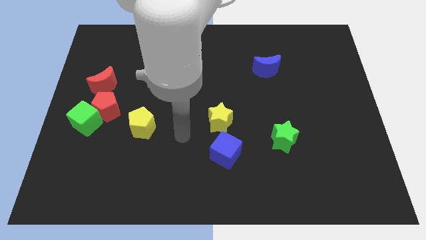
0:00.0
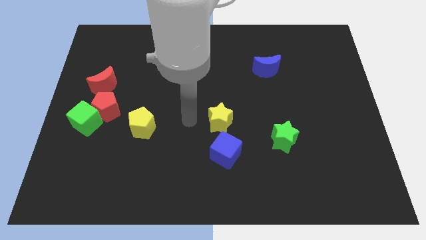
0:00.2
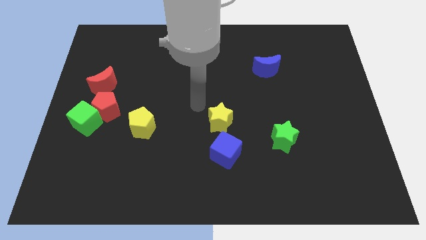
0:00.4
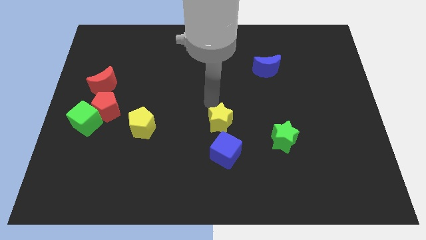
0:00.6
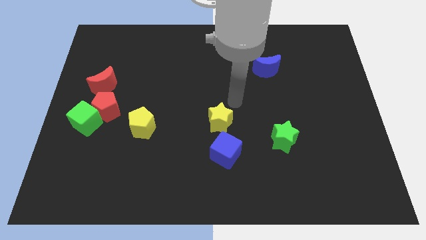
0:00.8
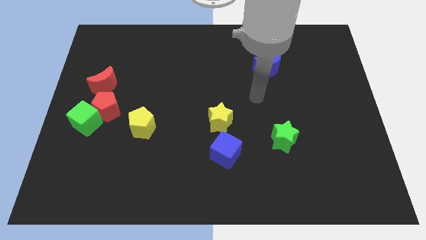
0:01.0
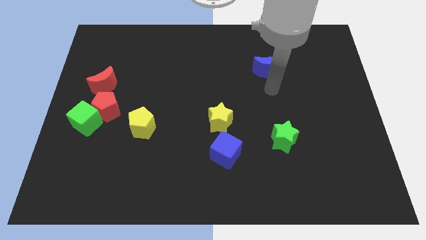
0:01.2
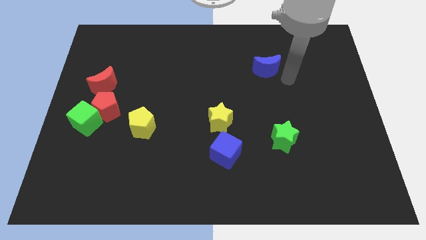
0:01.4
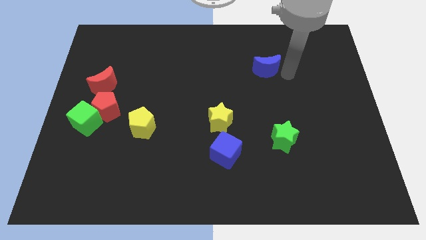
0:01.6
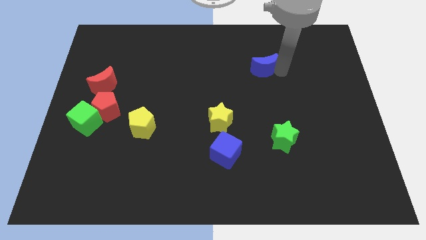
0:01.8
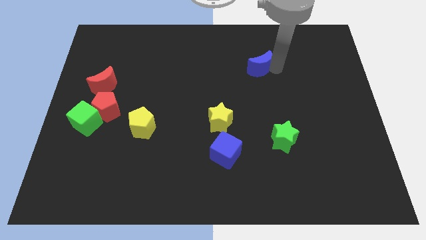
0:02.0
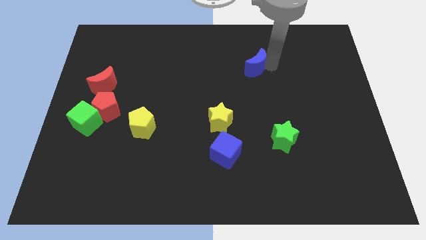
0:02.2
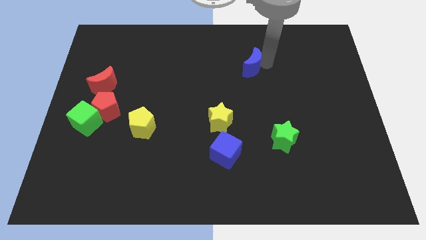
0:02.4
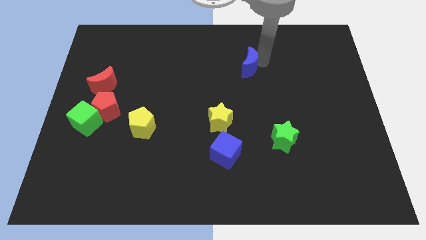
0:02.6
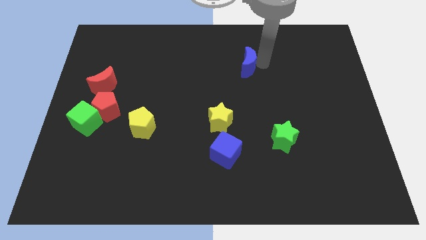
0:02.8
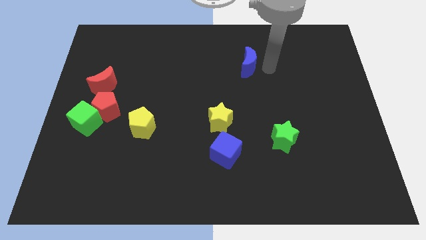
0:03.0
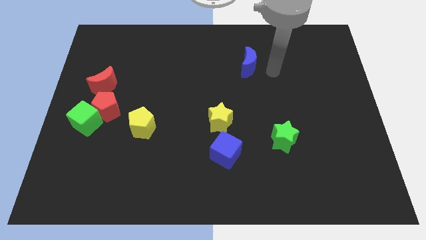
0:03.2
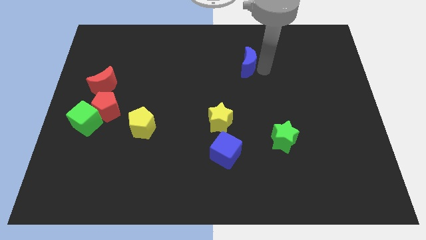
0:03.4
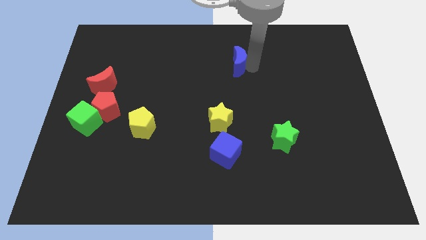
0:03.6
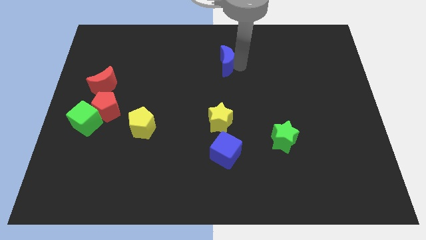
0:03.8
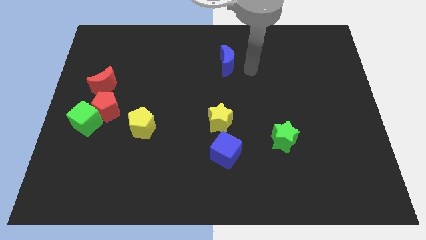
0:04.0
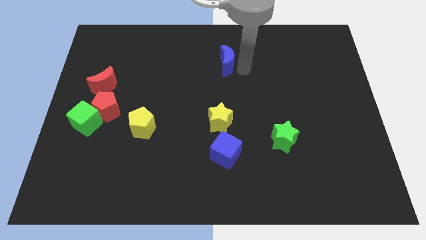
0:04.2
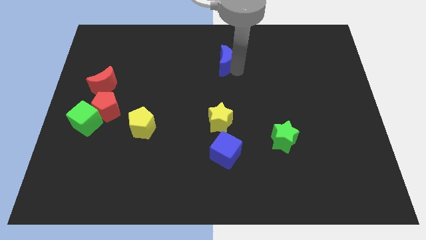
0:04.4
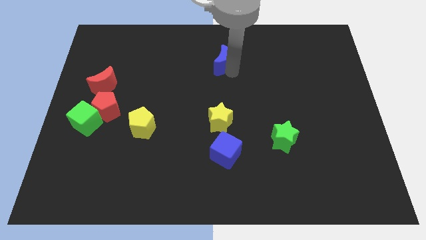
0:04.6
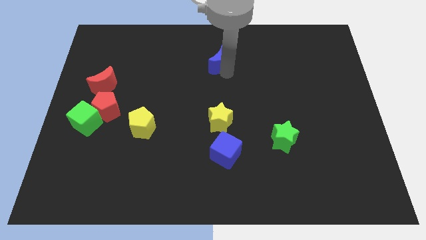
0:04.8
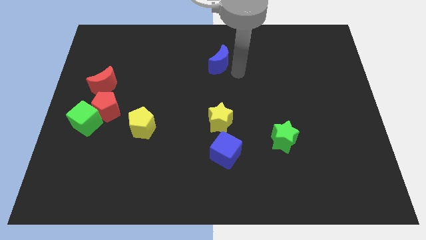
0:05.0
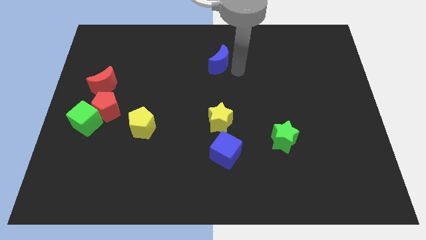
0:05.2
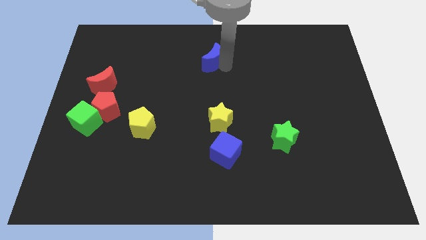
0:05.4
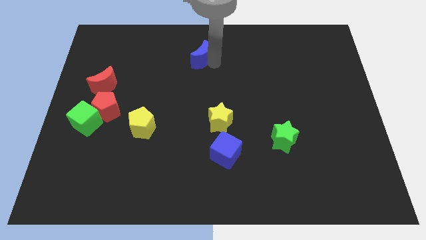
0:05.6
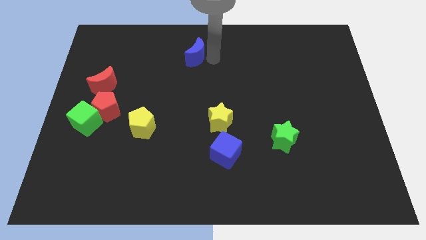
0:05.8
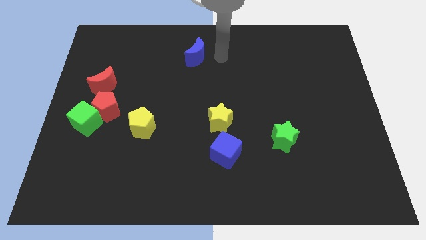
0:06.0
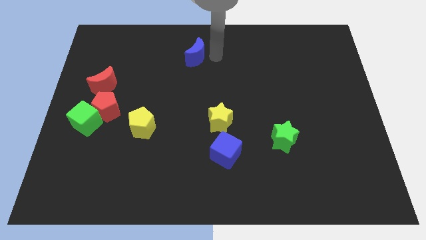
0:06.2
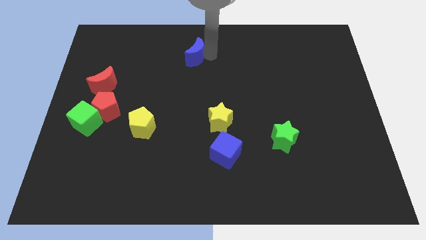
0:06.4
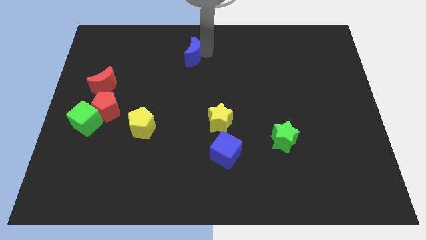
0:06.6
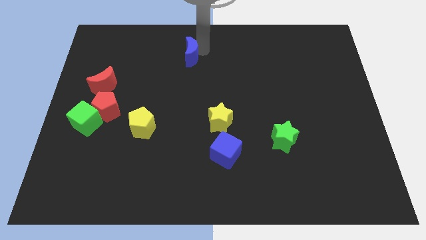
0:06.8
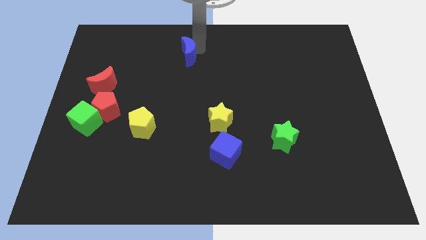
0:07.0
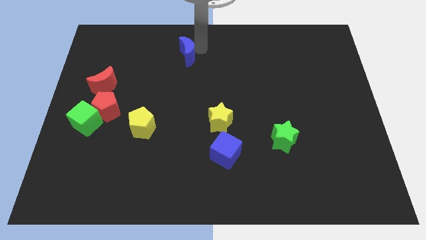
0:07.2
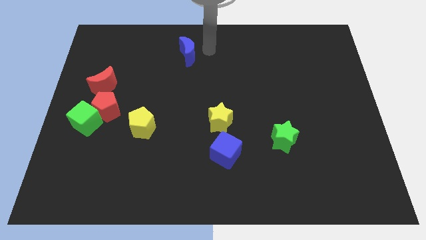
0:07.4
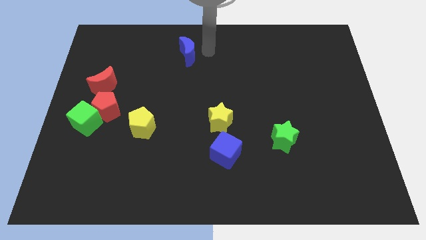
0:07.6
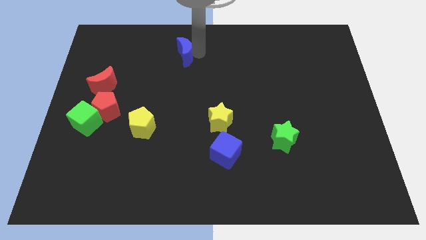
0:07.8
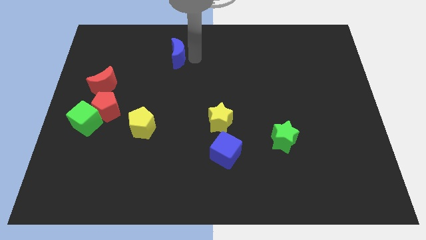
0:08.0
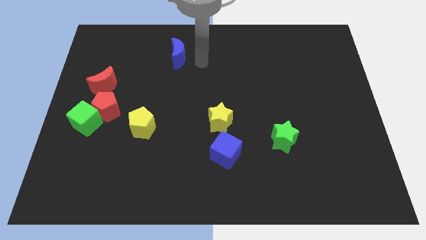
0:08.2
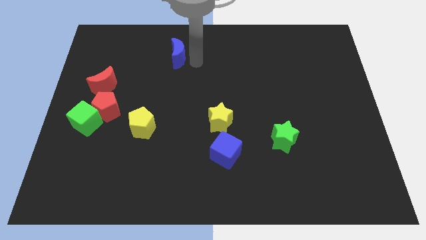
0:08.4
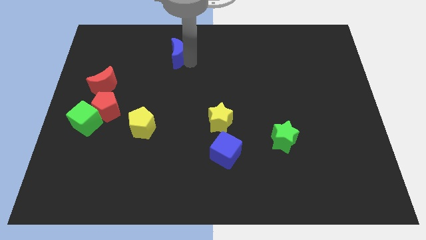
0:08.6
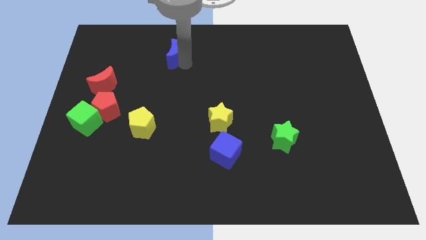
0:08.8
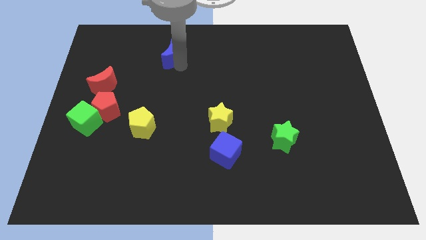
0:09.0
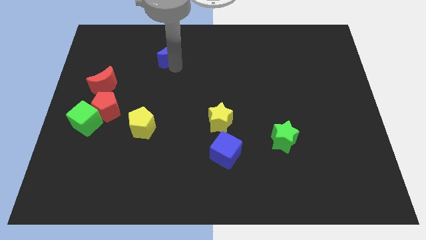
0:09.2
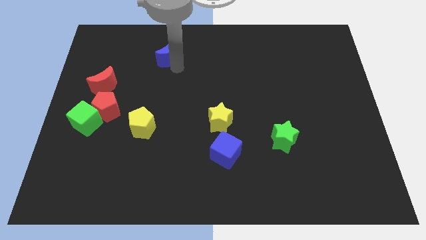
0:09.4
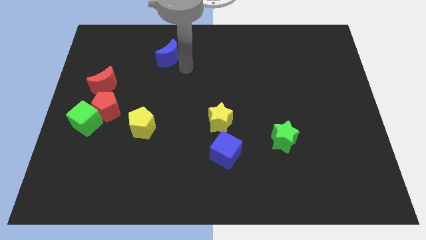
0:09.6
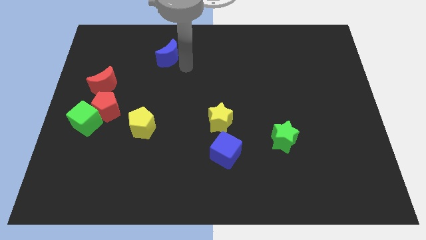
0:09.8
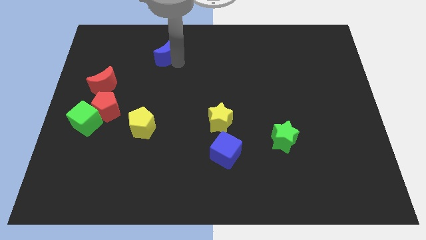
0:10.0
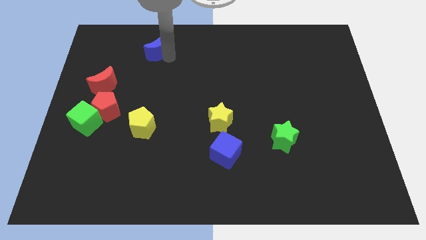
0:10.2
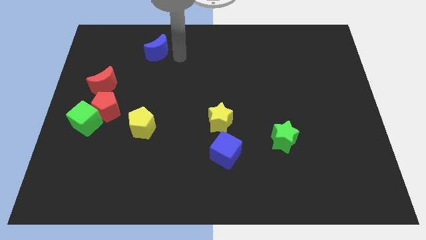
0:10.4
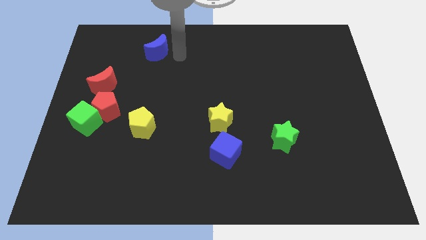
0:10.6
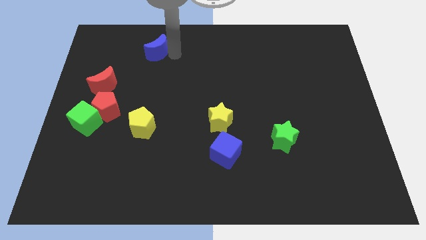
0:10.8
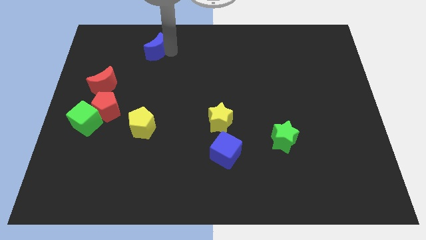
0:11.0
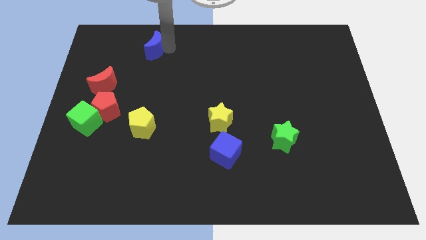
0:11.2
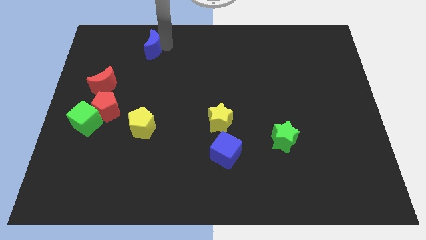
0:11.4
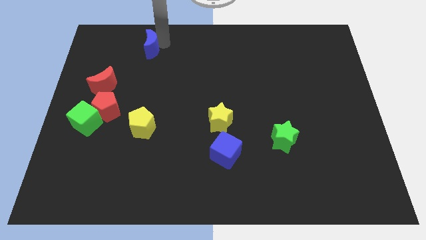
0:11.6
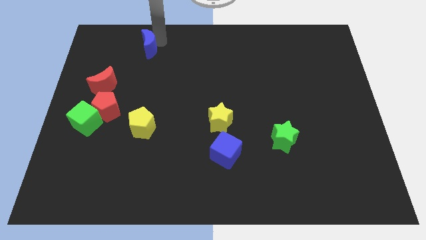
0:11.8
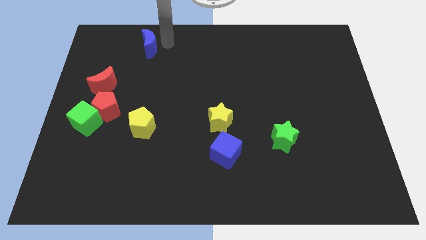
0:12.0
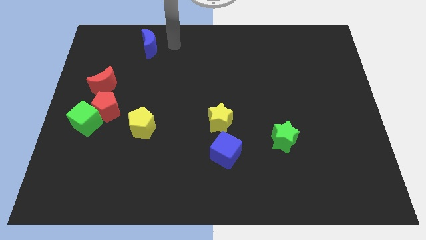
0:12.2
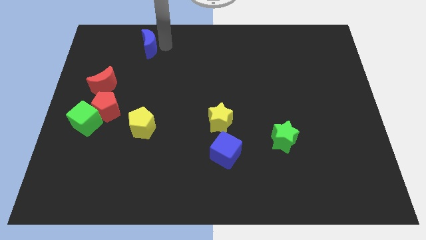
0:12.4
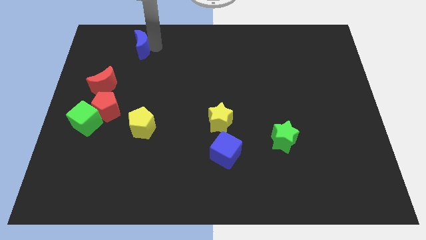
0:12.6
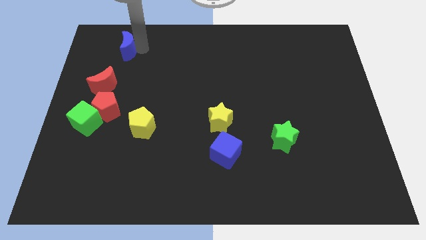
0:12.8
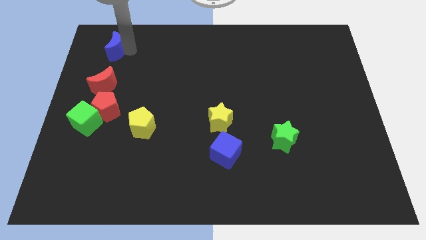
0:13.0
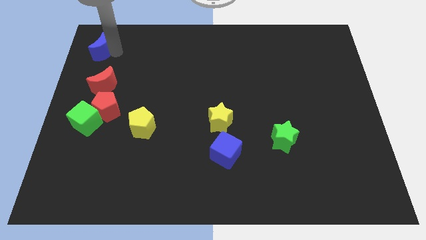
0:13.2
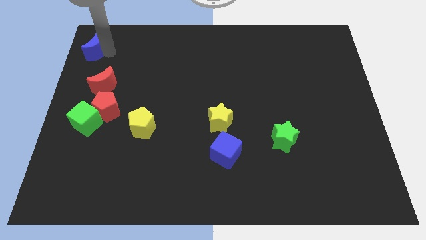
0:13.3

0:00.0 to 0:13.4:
put the blue moon to the upper left corner
